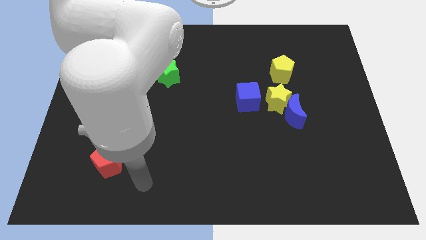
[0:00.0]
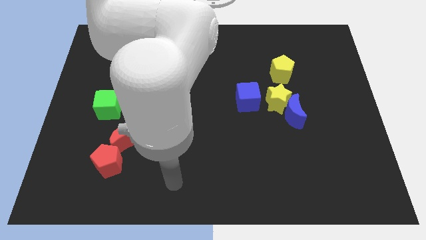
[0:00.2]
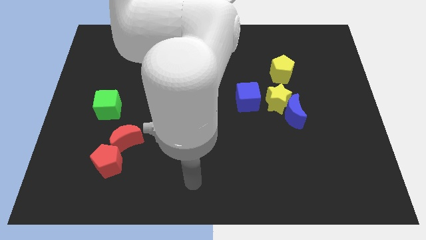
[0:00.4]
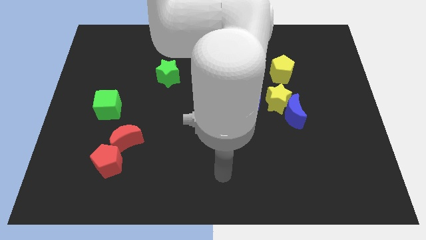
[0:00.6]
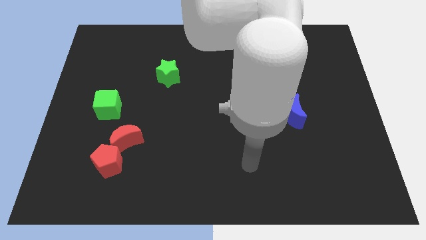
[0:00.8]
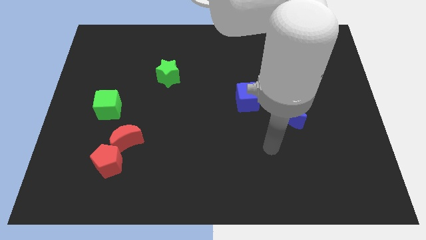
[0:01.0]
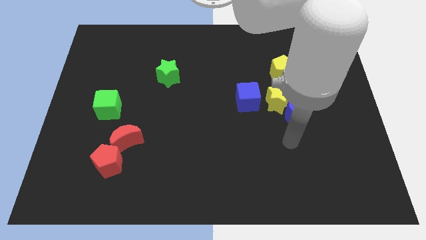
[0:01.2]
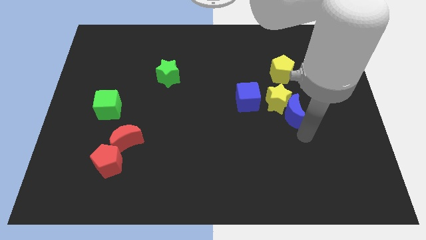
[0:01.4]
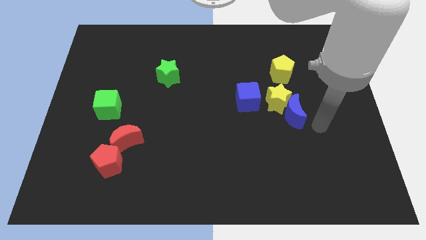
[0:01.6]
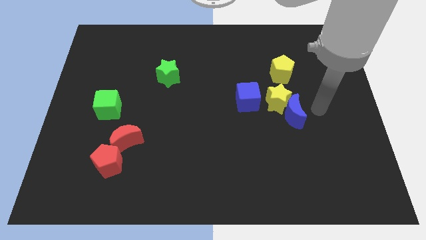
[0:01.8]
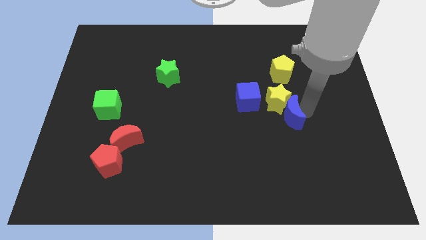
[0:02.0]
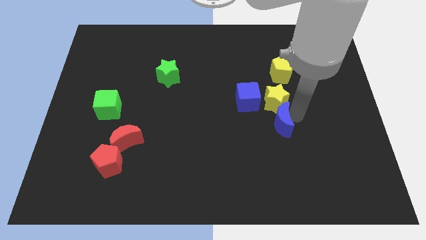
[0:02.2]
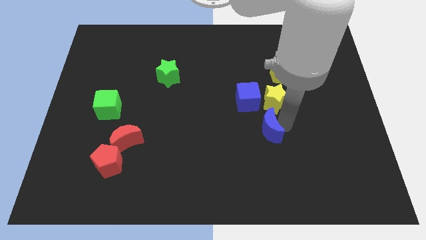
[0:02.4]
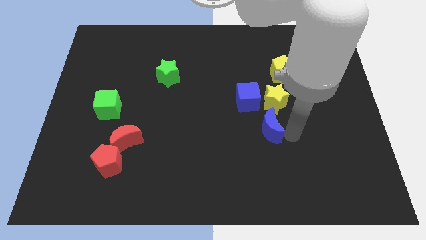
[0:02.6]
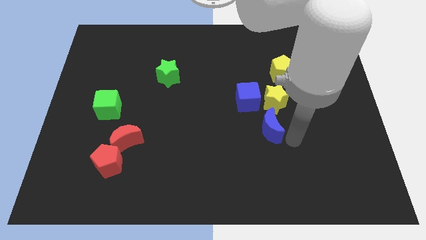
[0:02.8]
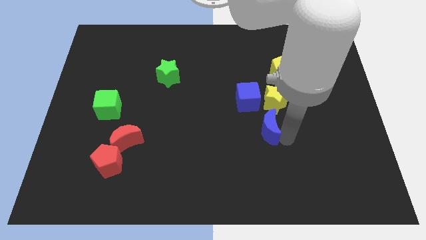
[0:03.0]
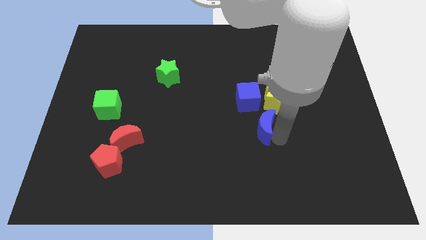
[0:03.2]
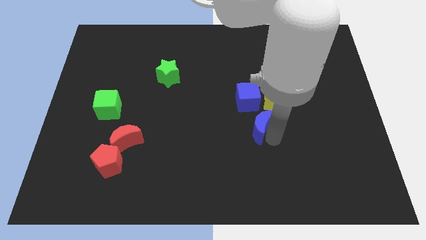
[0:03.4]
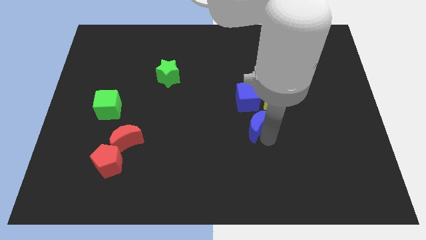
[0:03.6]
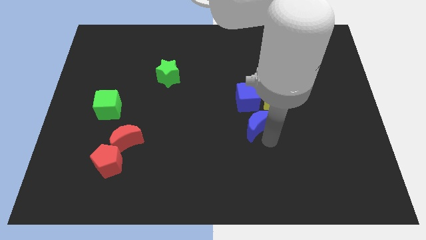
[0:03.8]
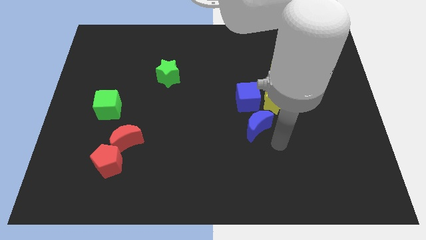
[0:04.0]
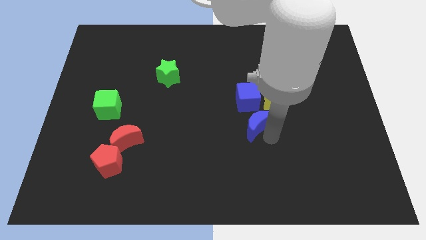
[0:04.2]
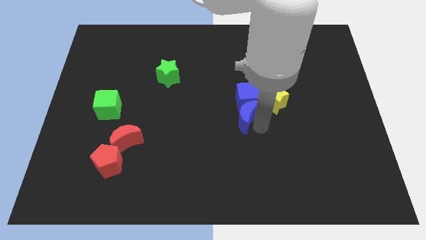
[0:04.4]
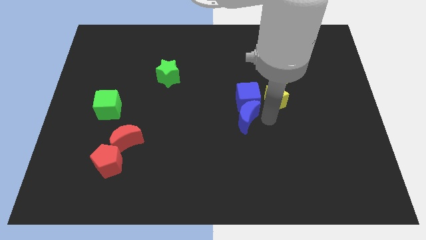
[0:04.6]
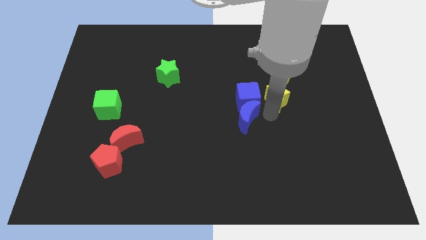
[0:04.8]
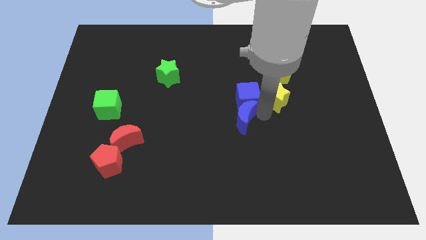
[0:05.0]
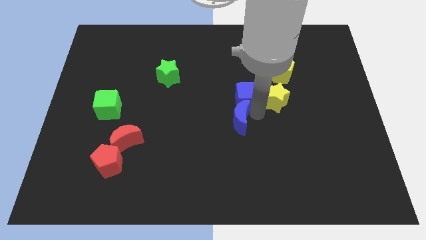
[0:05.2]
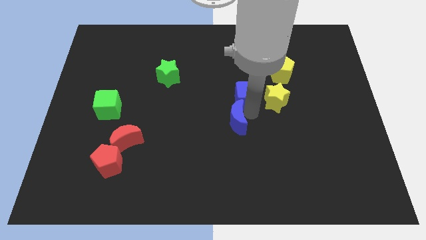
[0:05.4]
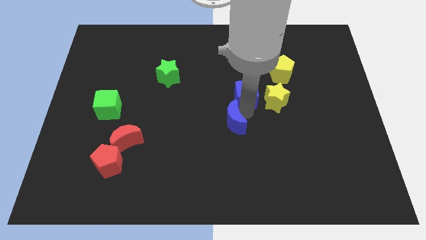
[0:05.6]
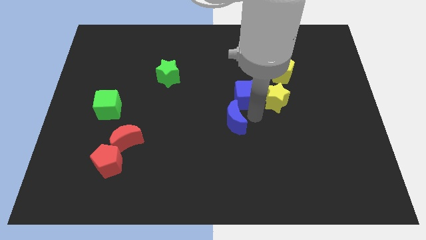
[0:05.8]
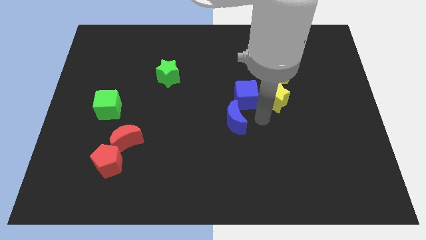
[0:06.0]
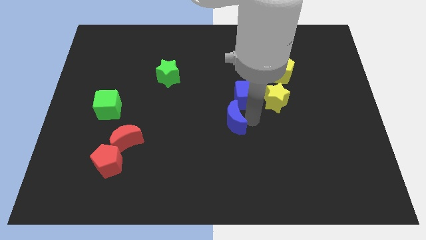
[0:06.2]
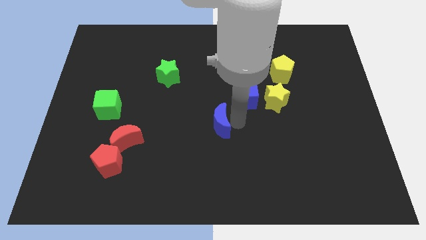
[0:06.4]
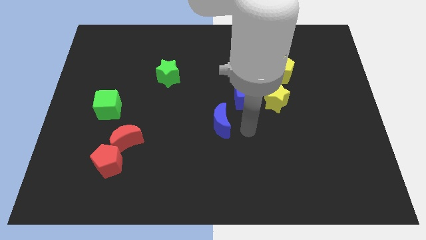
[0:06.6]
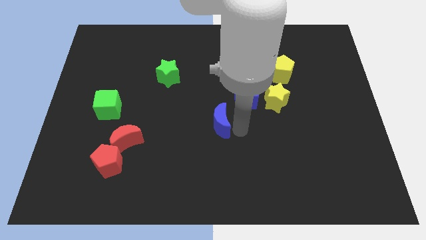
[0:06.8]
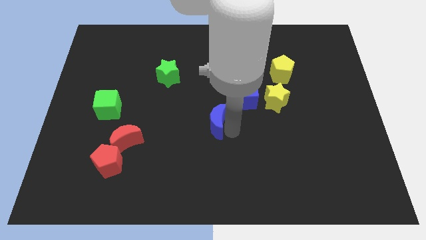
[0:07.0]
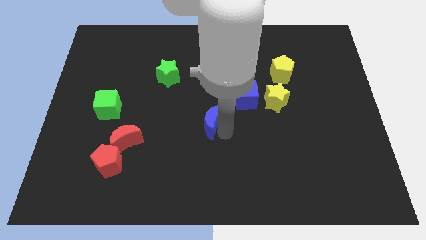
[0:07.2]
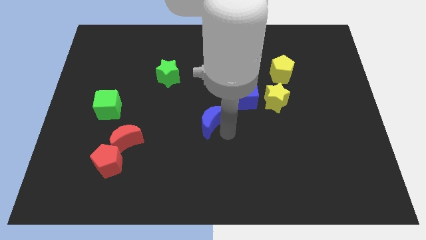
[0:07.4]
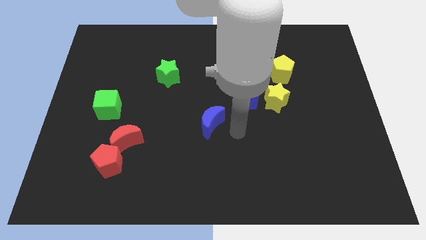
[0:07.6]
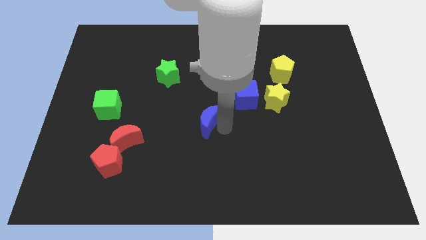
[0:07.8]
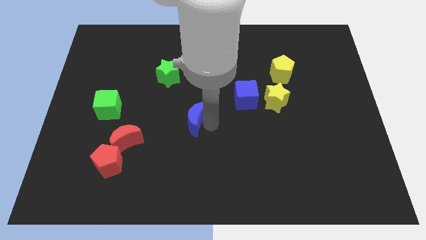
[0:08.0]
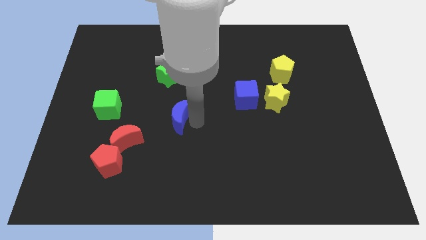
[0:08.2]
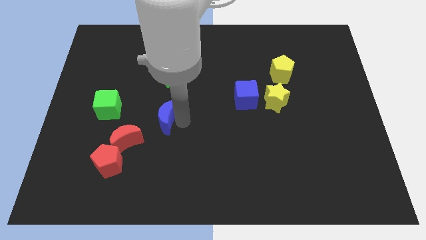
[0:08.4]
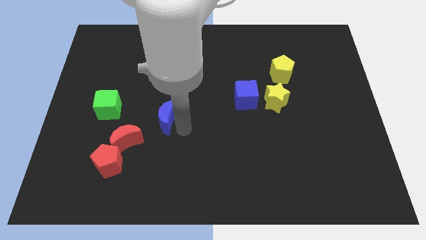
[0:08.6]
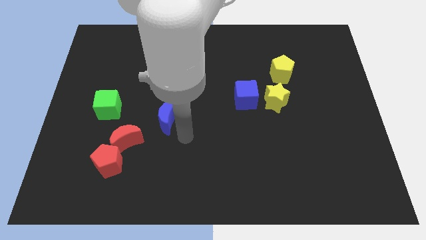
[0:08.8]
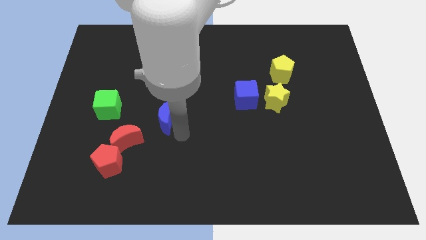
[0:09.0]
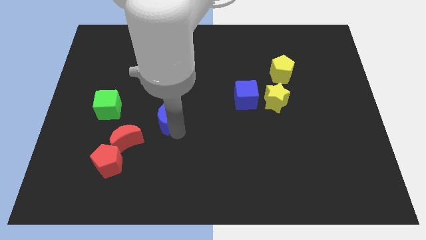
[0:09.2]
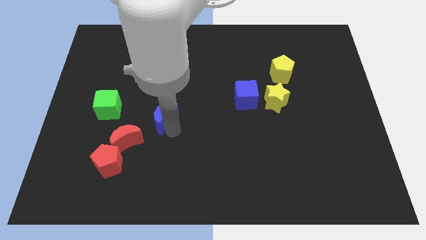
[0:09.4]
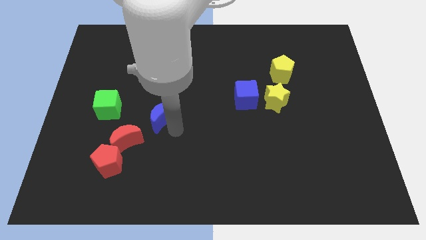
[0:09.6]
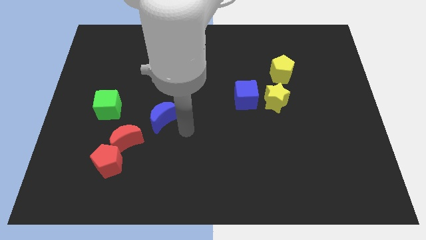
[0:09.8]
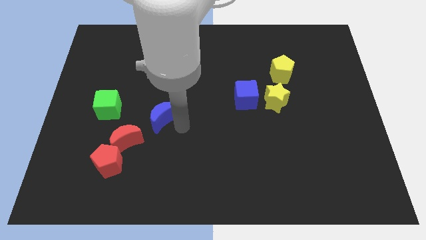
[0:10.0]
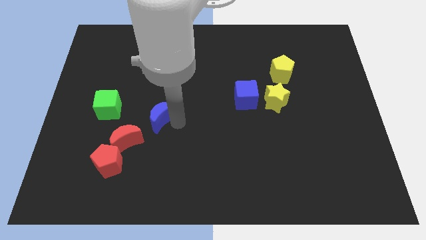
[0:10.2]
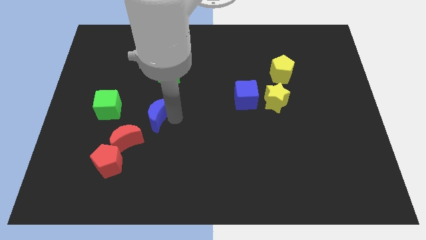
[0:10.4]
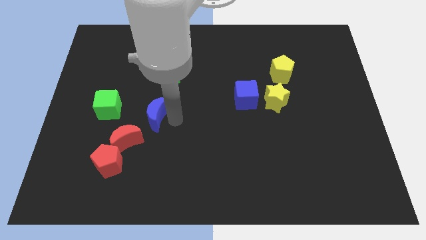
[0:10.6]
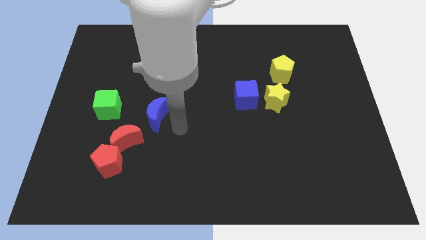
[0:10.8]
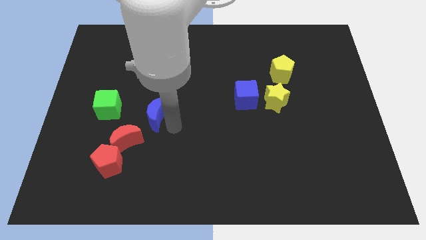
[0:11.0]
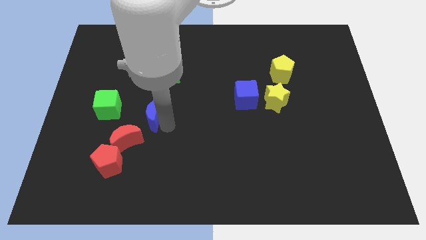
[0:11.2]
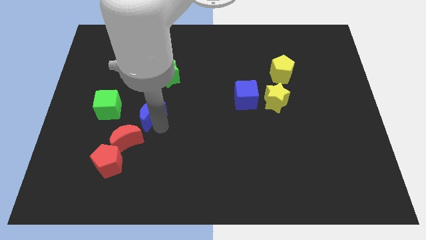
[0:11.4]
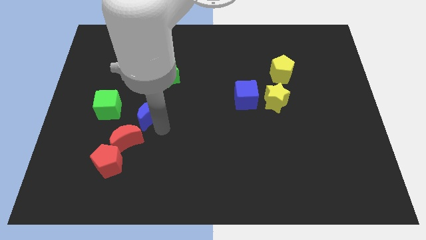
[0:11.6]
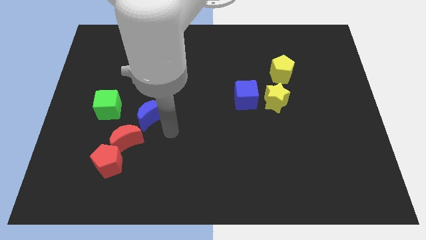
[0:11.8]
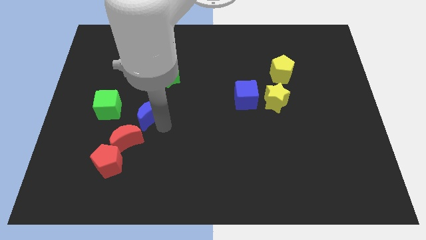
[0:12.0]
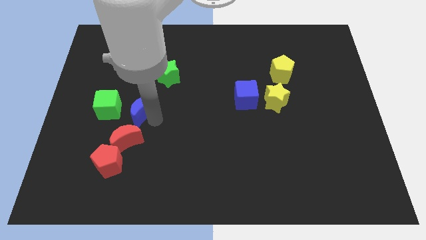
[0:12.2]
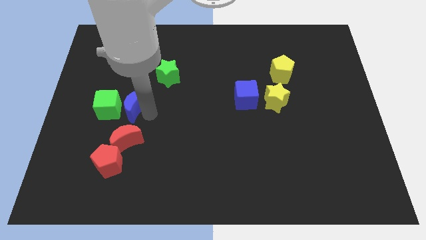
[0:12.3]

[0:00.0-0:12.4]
put the blue moon towards the green cube

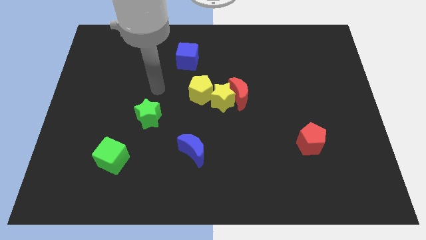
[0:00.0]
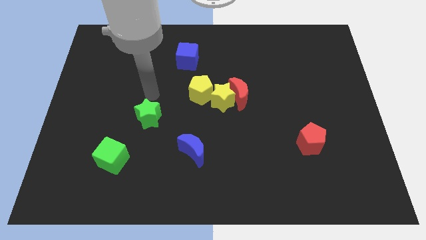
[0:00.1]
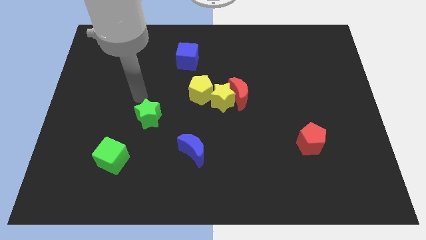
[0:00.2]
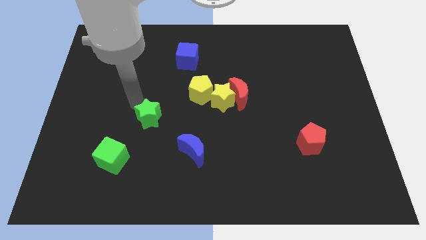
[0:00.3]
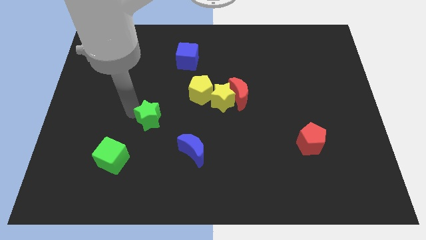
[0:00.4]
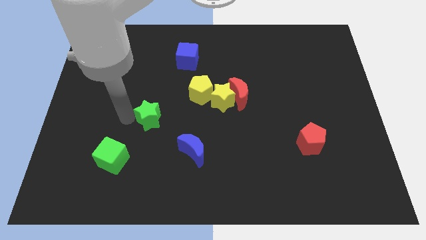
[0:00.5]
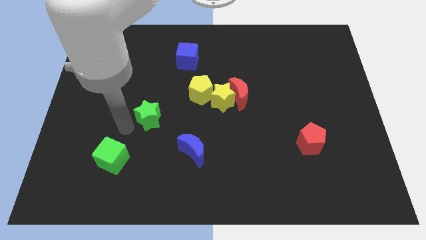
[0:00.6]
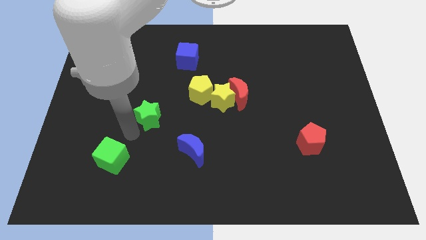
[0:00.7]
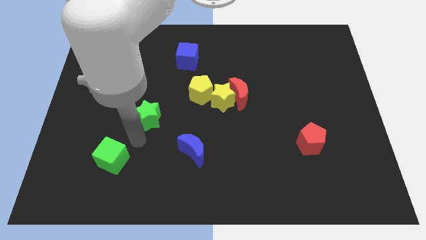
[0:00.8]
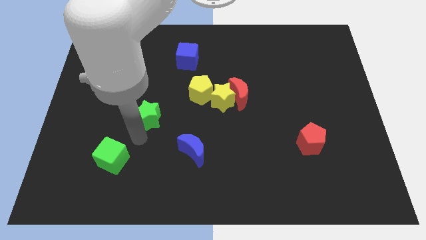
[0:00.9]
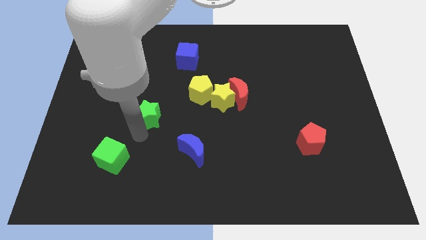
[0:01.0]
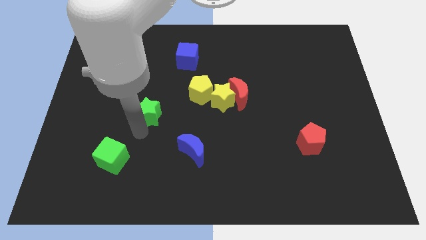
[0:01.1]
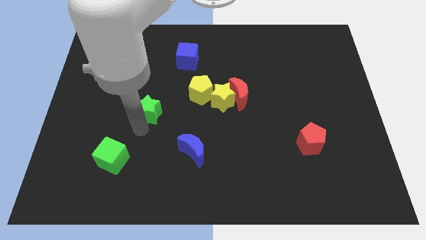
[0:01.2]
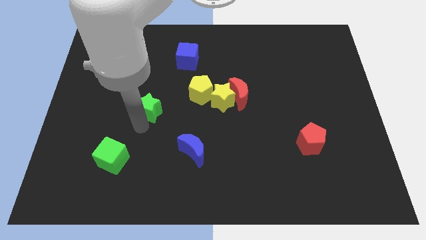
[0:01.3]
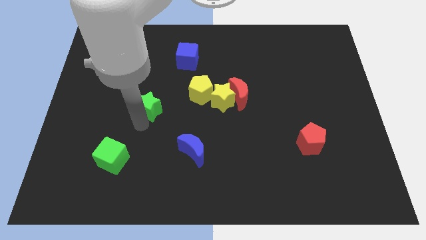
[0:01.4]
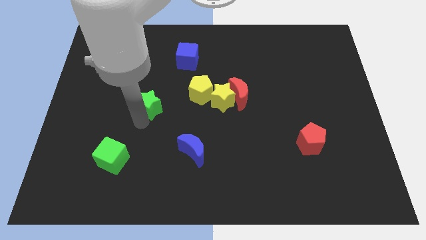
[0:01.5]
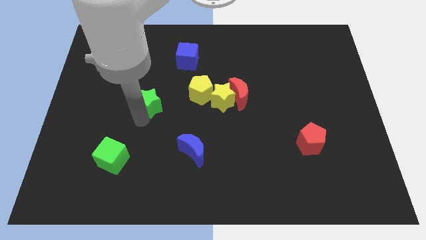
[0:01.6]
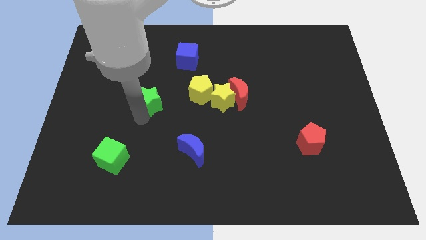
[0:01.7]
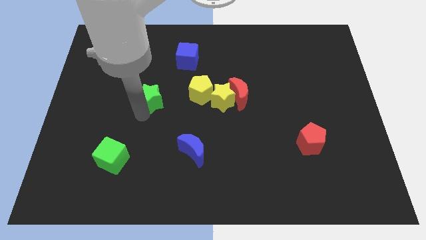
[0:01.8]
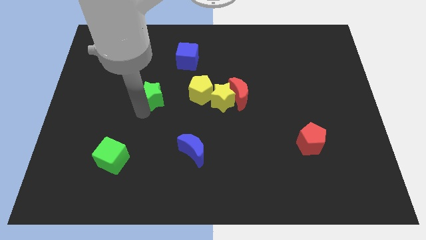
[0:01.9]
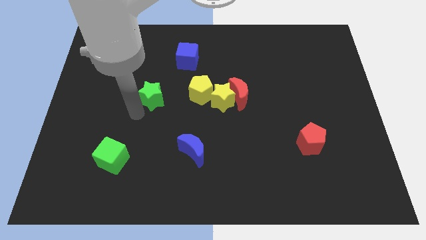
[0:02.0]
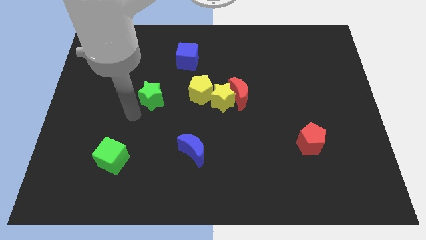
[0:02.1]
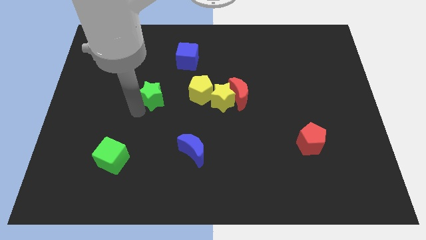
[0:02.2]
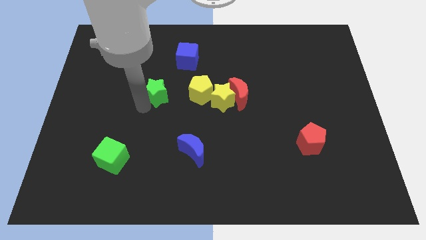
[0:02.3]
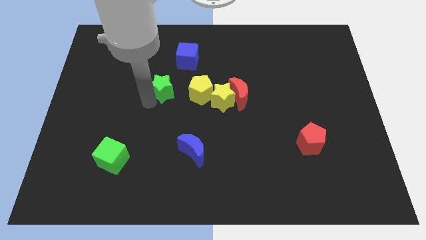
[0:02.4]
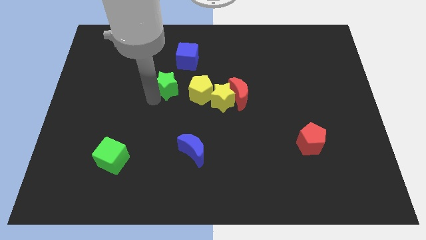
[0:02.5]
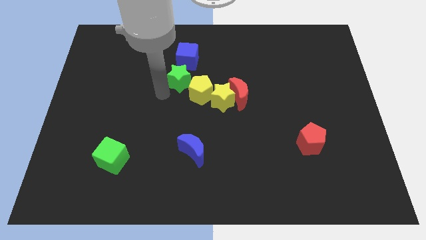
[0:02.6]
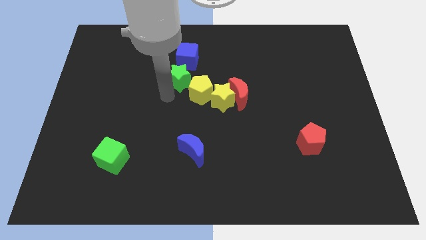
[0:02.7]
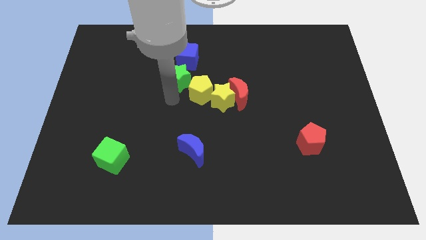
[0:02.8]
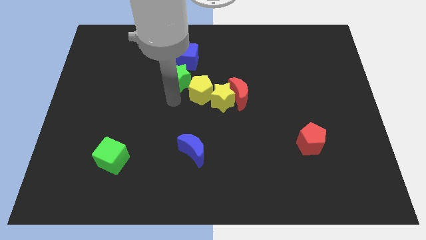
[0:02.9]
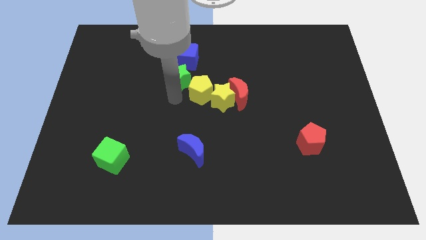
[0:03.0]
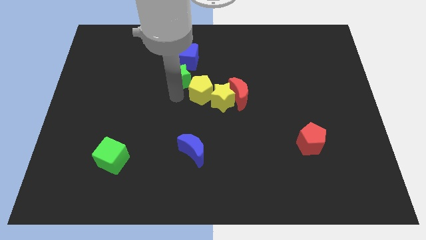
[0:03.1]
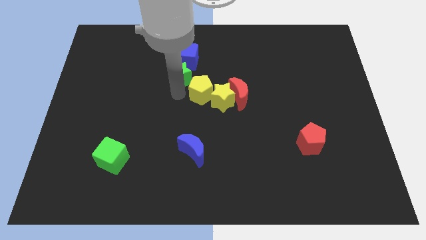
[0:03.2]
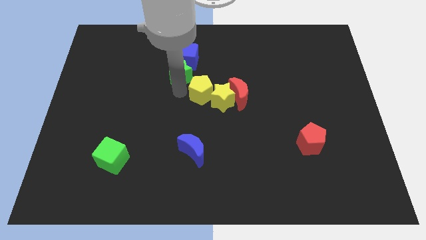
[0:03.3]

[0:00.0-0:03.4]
slide the green star next to the blue cube
